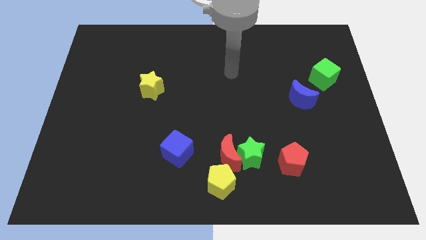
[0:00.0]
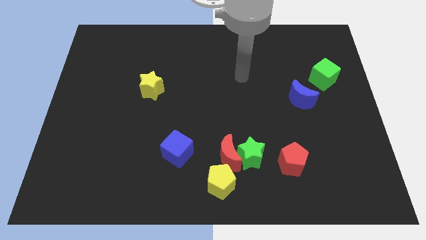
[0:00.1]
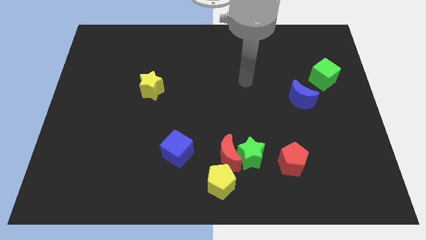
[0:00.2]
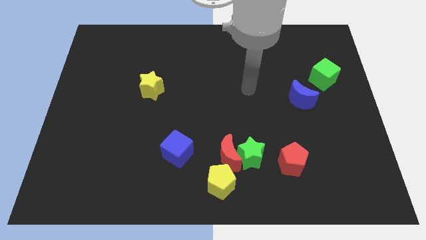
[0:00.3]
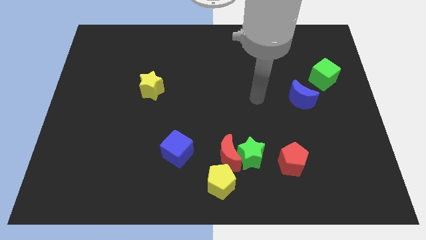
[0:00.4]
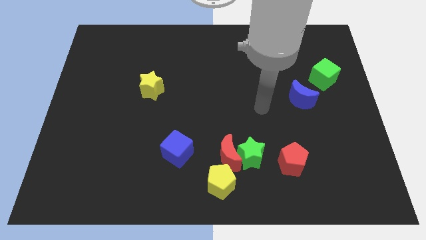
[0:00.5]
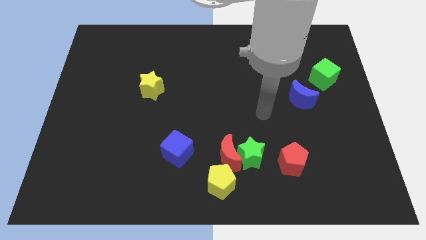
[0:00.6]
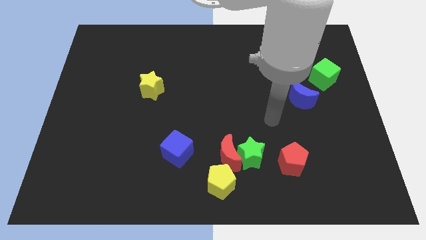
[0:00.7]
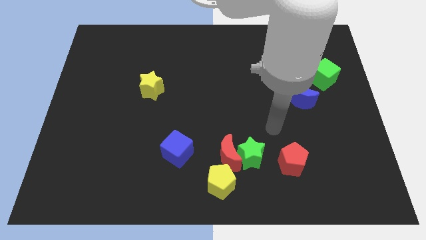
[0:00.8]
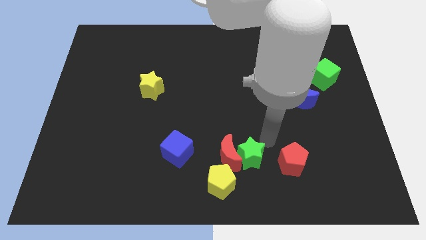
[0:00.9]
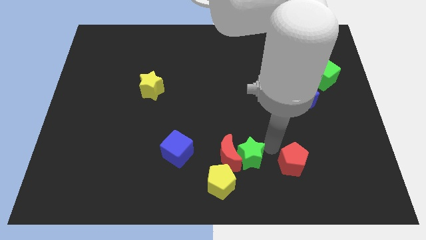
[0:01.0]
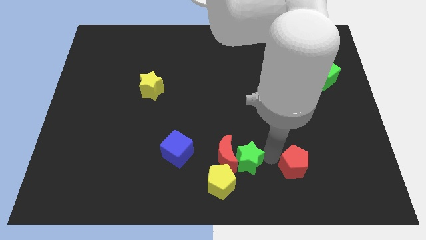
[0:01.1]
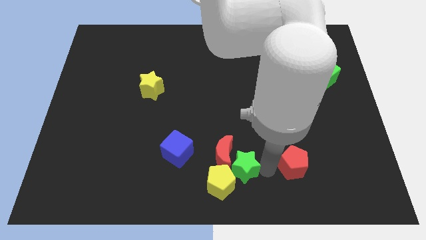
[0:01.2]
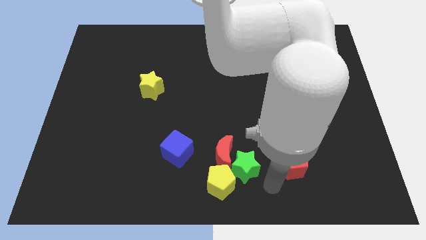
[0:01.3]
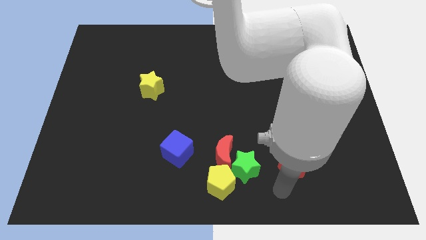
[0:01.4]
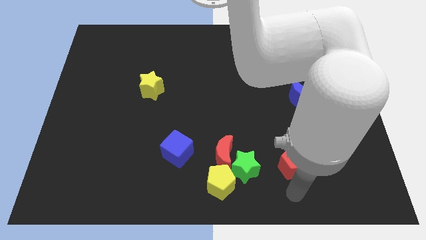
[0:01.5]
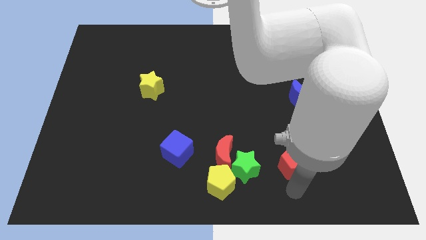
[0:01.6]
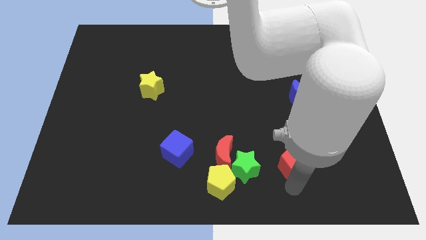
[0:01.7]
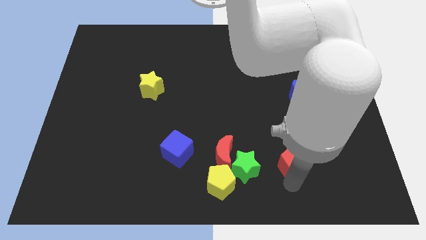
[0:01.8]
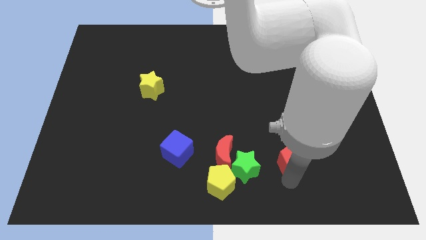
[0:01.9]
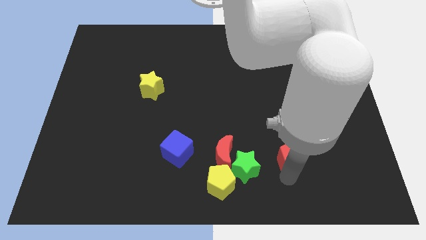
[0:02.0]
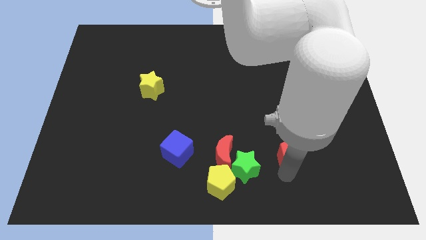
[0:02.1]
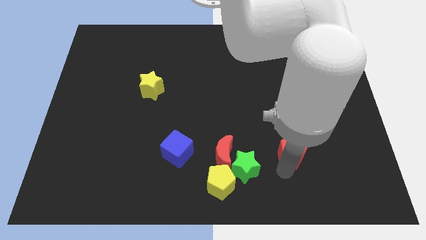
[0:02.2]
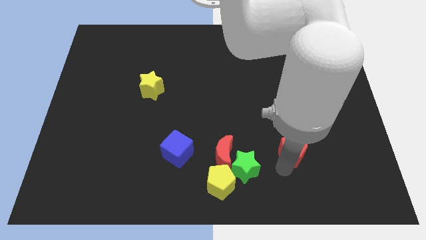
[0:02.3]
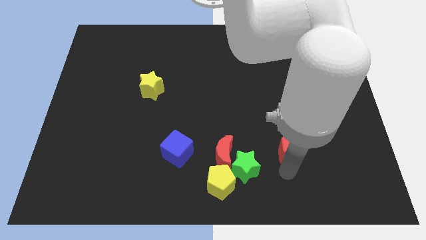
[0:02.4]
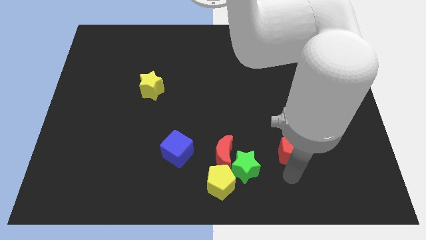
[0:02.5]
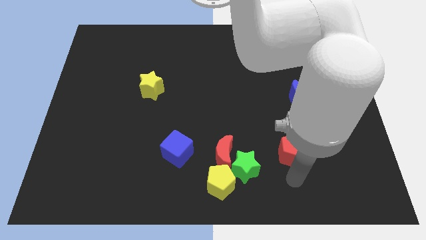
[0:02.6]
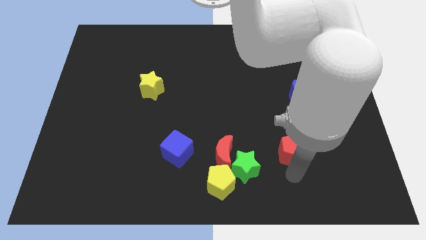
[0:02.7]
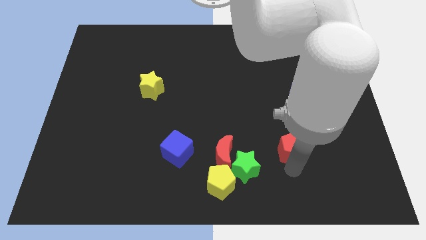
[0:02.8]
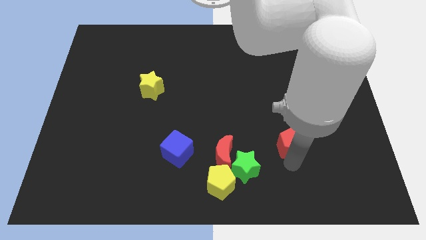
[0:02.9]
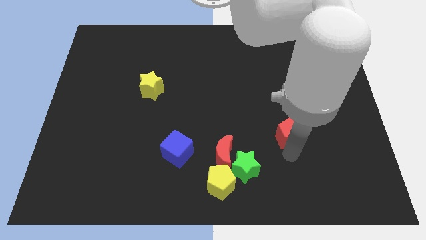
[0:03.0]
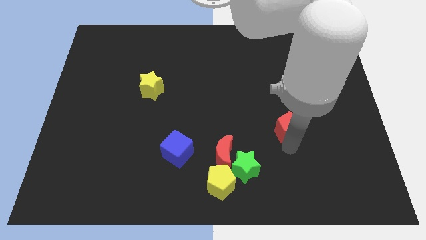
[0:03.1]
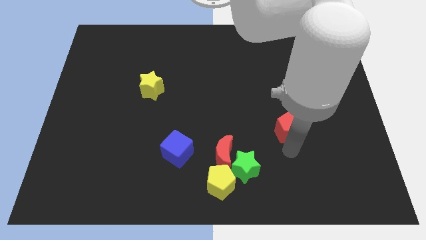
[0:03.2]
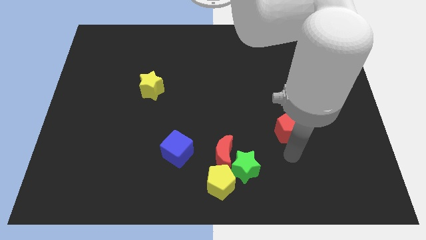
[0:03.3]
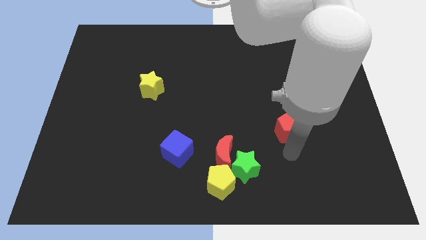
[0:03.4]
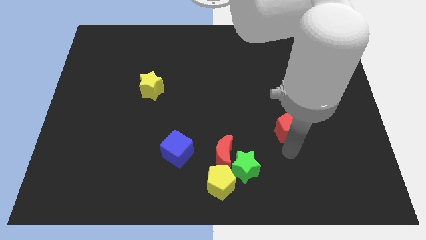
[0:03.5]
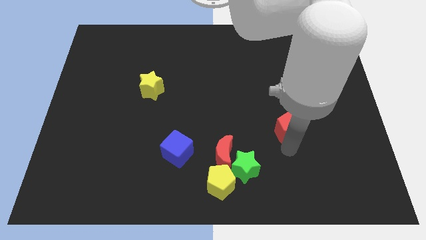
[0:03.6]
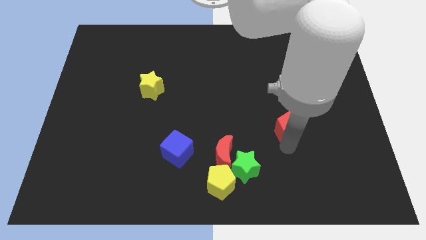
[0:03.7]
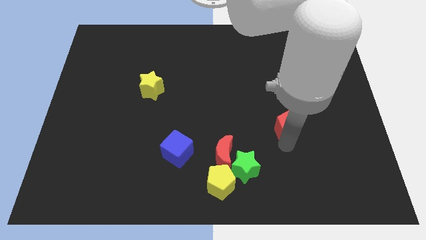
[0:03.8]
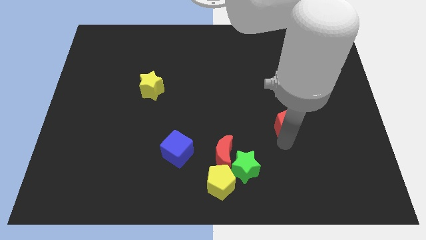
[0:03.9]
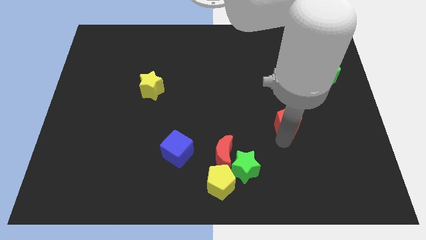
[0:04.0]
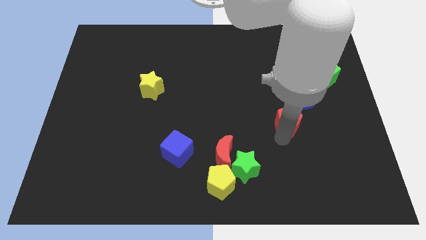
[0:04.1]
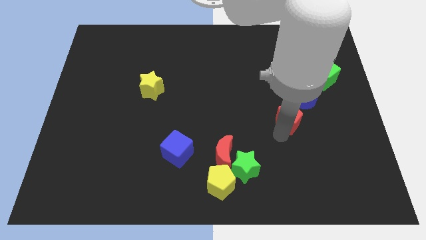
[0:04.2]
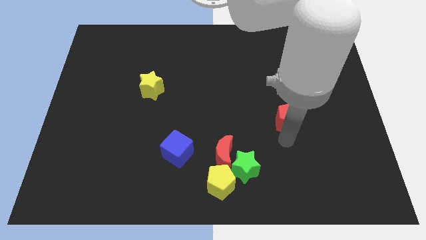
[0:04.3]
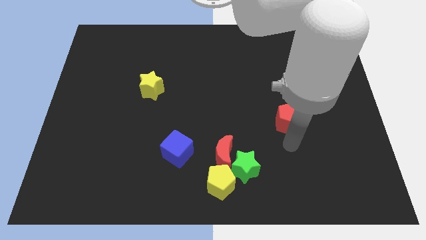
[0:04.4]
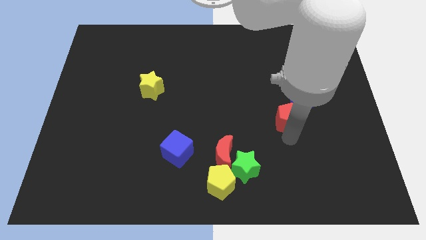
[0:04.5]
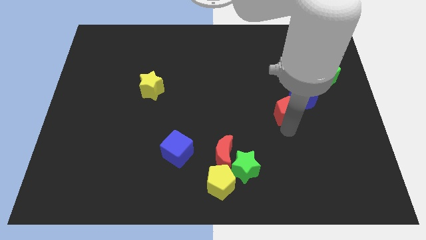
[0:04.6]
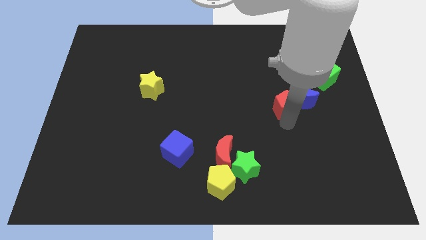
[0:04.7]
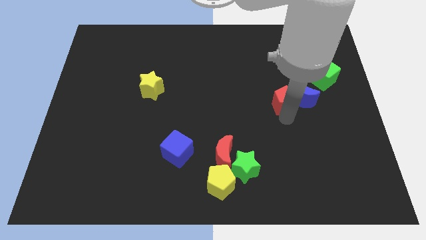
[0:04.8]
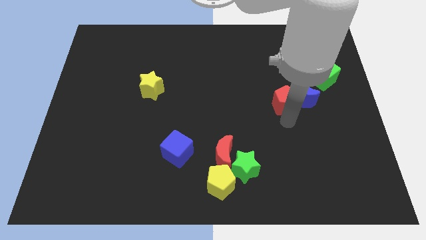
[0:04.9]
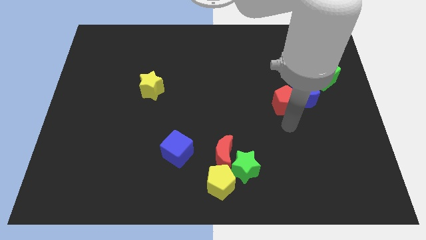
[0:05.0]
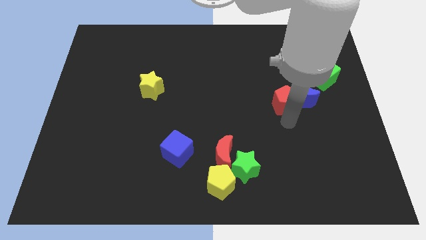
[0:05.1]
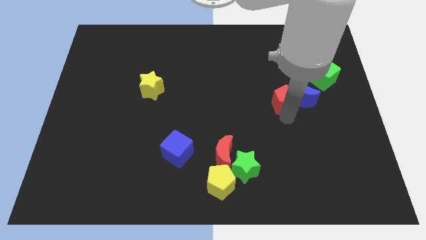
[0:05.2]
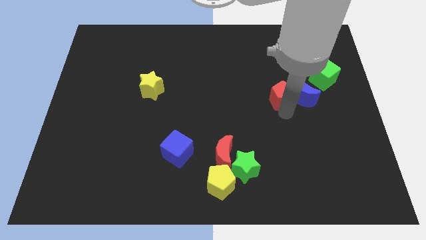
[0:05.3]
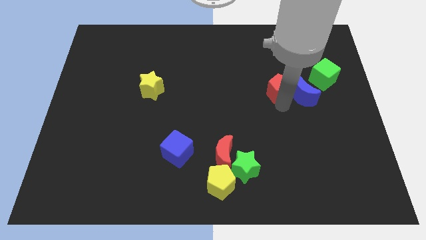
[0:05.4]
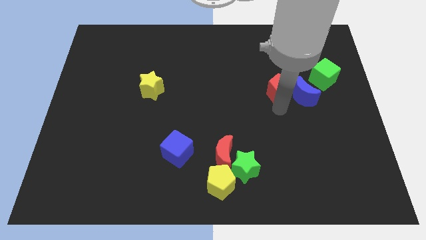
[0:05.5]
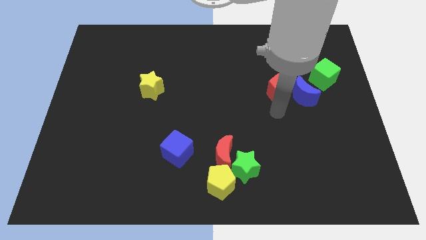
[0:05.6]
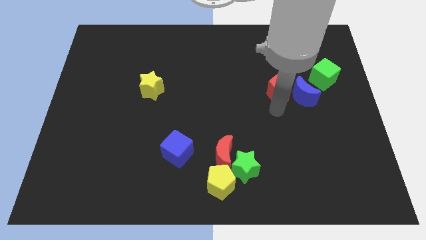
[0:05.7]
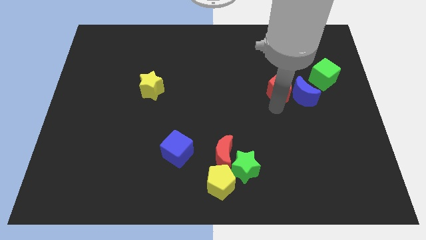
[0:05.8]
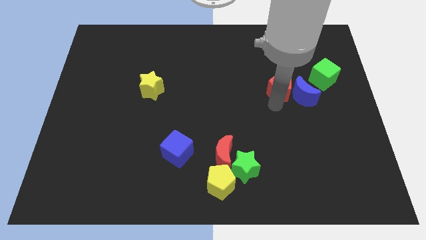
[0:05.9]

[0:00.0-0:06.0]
slide the red pentagon upwards

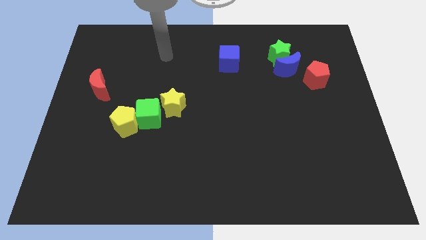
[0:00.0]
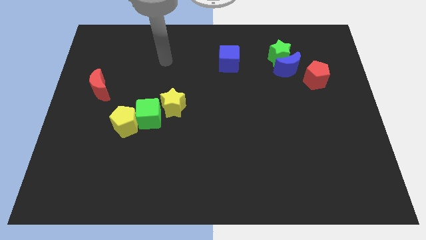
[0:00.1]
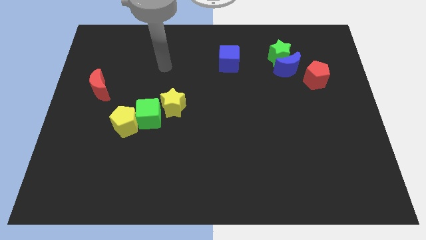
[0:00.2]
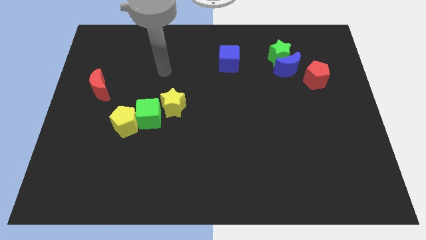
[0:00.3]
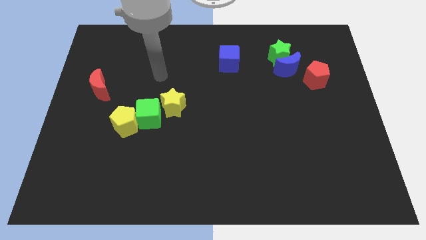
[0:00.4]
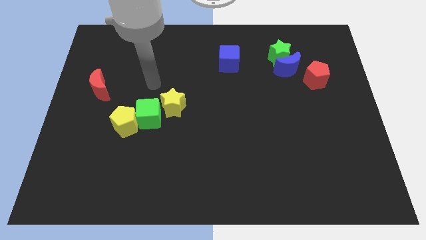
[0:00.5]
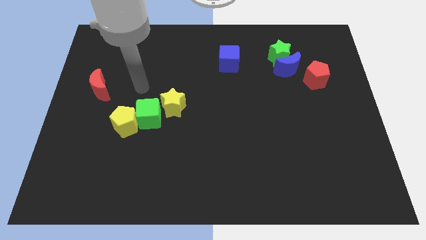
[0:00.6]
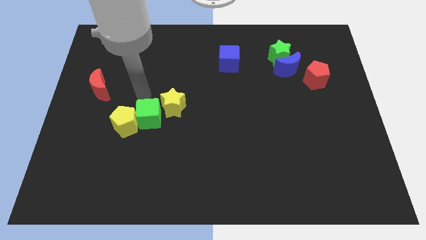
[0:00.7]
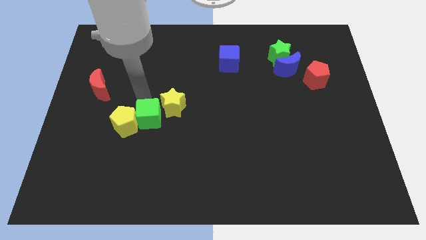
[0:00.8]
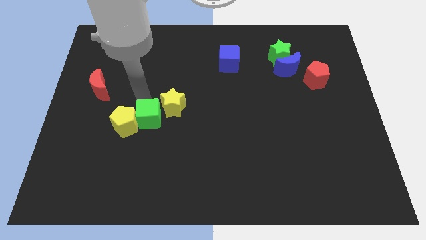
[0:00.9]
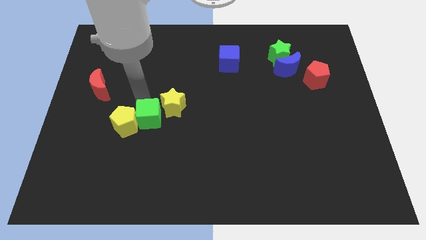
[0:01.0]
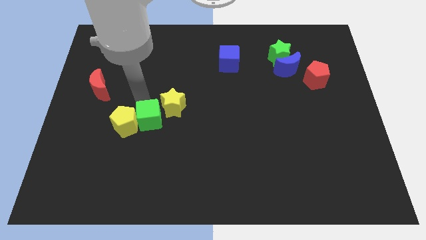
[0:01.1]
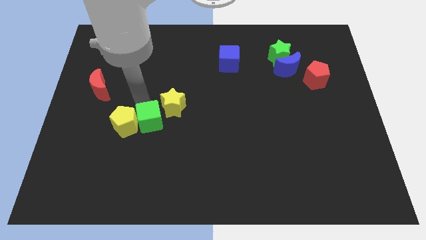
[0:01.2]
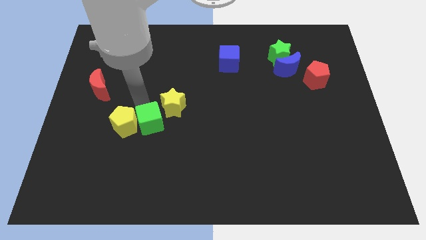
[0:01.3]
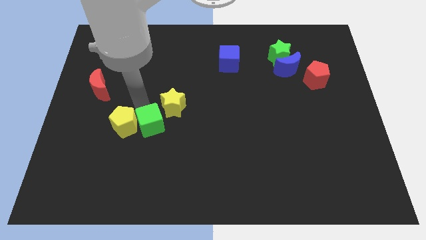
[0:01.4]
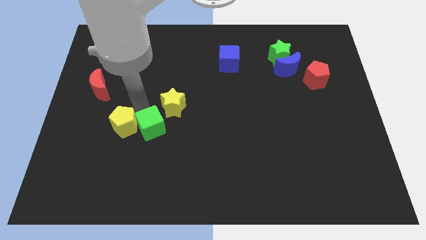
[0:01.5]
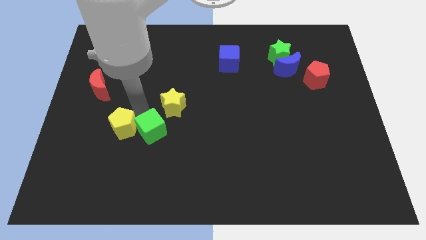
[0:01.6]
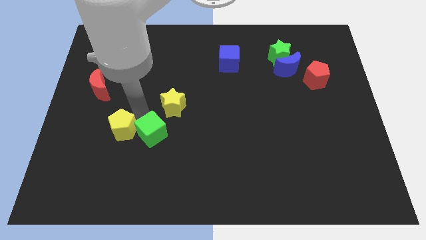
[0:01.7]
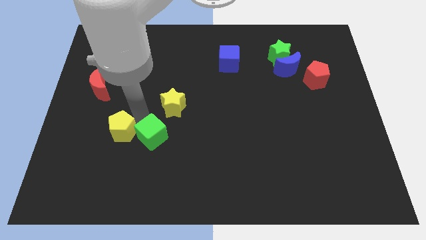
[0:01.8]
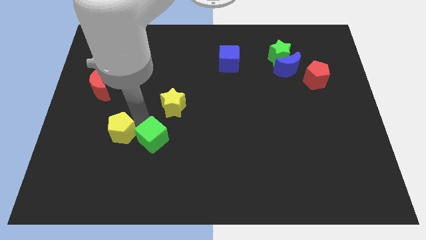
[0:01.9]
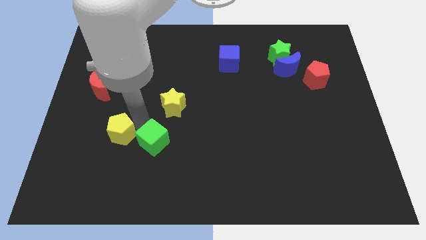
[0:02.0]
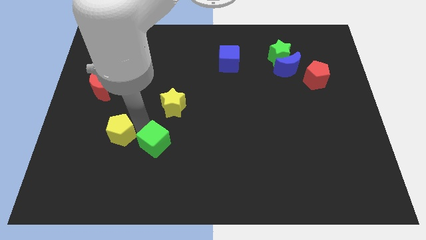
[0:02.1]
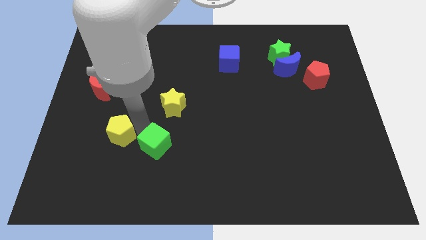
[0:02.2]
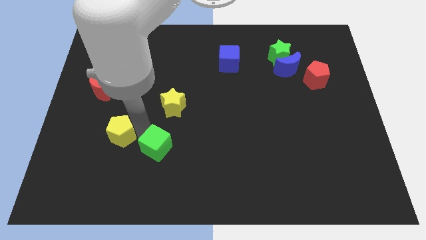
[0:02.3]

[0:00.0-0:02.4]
slide the green cube somewhat down and to the right
